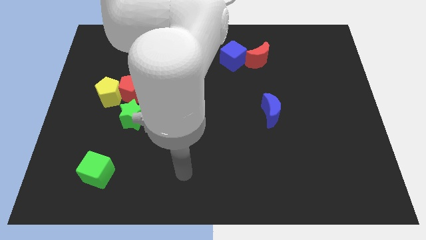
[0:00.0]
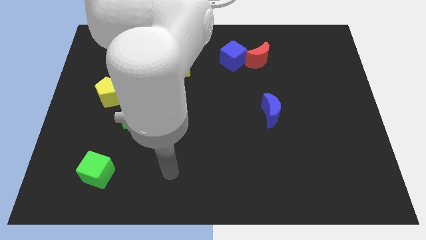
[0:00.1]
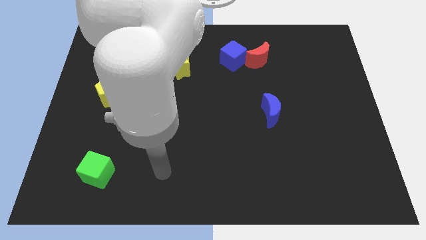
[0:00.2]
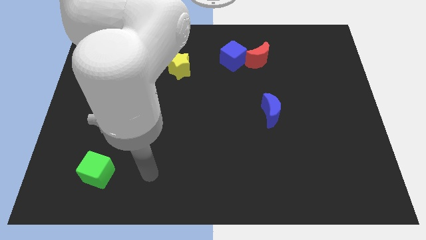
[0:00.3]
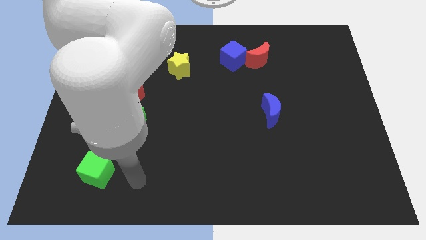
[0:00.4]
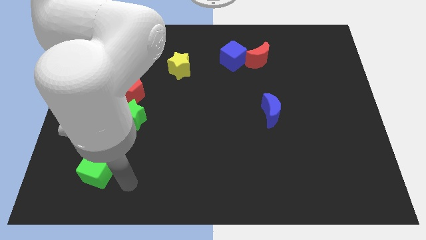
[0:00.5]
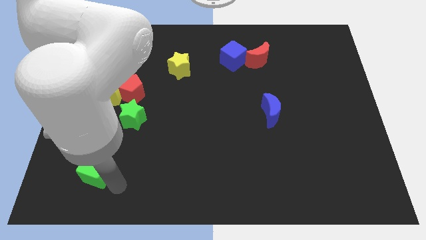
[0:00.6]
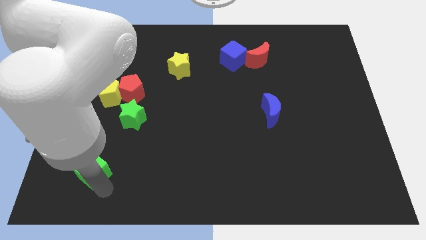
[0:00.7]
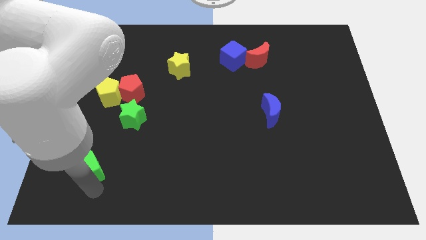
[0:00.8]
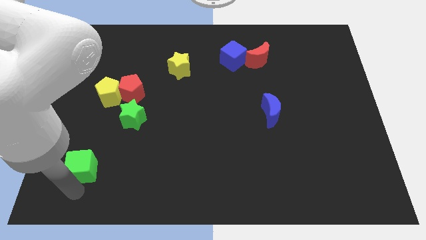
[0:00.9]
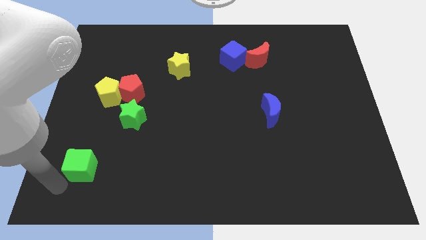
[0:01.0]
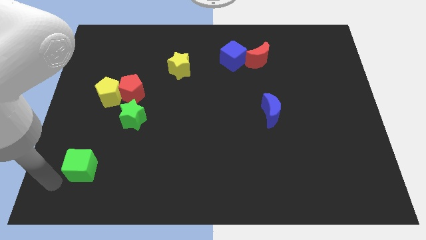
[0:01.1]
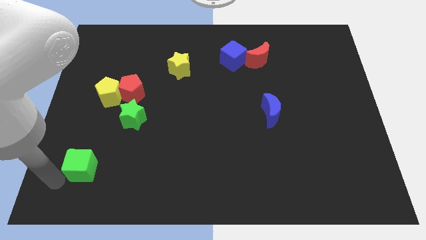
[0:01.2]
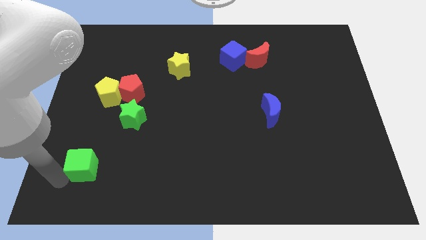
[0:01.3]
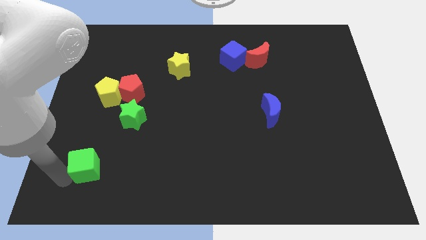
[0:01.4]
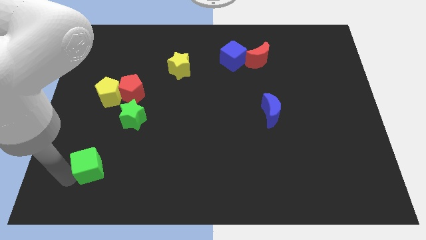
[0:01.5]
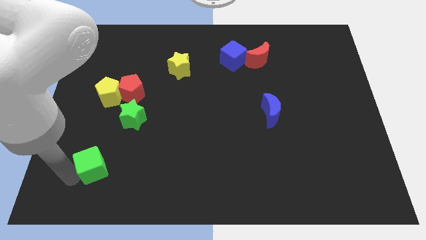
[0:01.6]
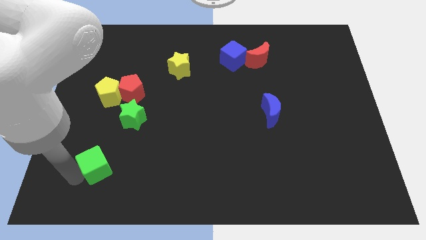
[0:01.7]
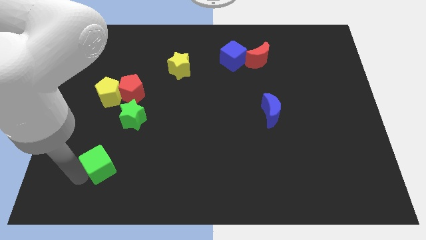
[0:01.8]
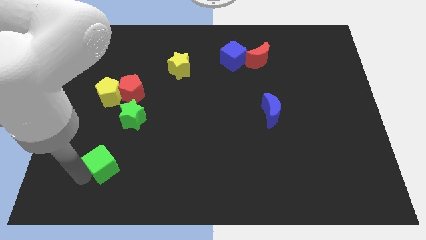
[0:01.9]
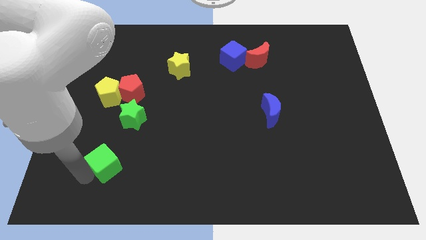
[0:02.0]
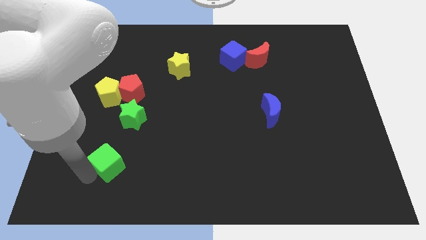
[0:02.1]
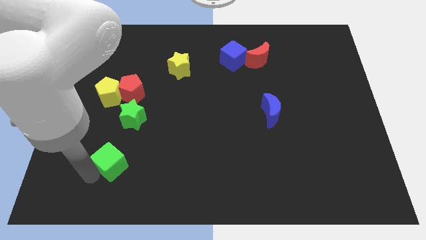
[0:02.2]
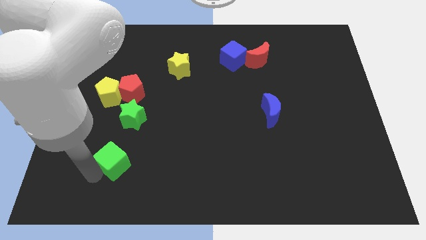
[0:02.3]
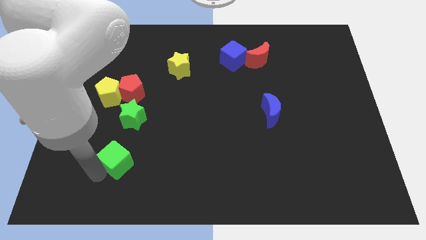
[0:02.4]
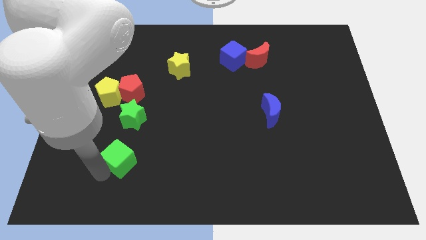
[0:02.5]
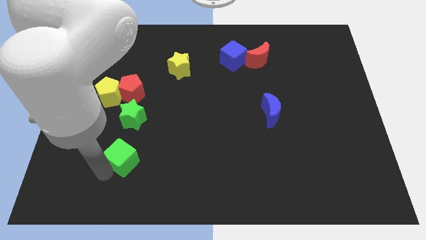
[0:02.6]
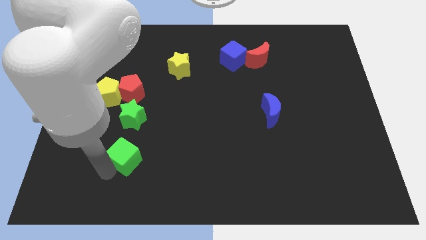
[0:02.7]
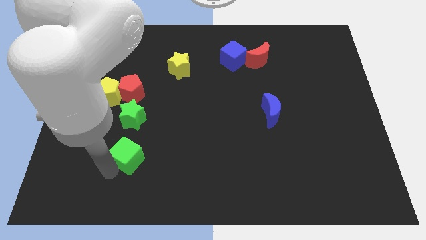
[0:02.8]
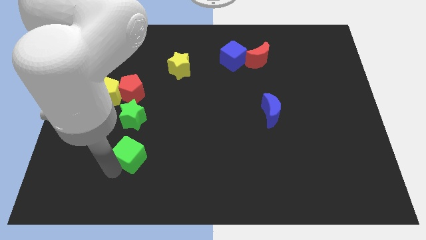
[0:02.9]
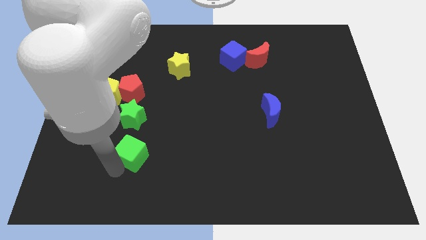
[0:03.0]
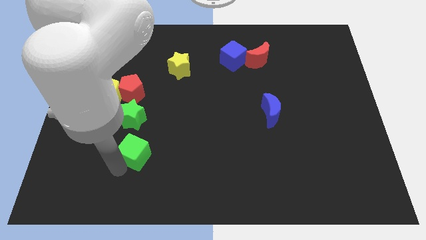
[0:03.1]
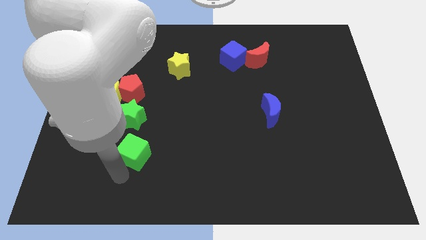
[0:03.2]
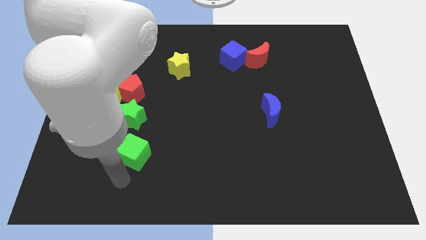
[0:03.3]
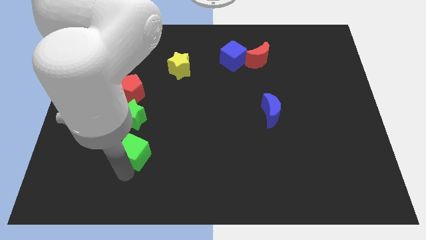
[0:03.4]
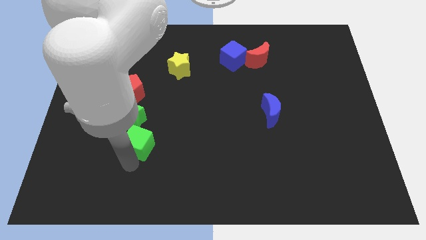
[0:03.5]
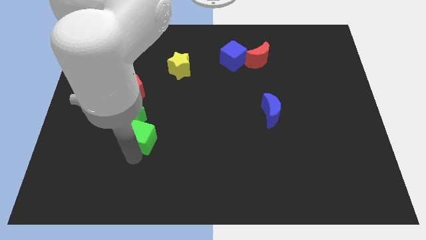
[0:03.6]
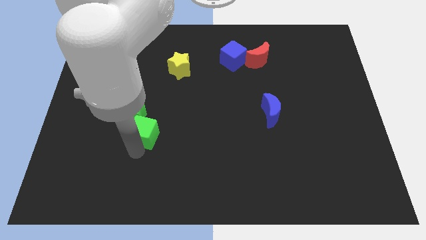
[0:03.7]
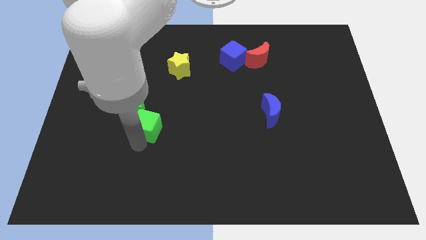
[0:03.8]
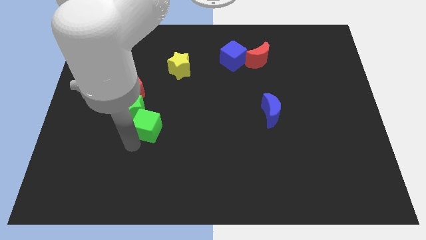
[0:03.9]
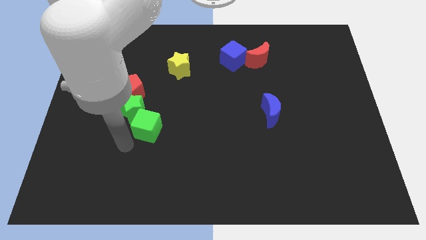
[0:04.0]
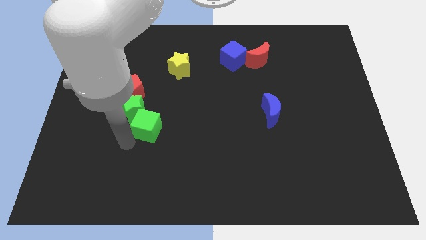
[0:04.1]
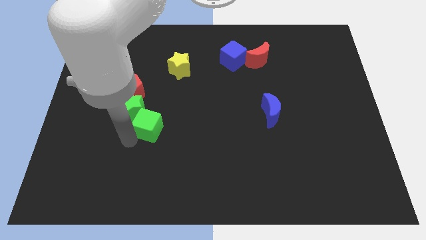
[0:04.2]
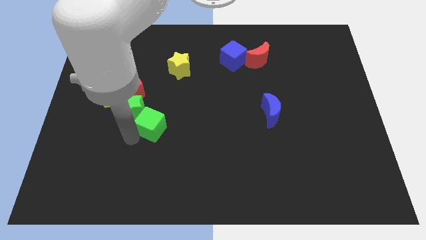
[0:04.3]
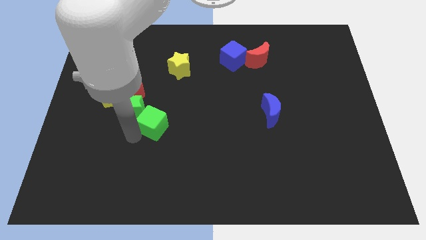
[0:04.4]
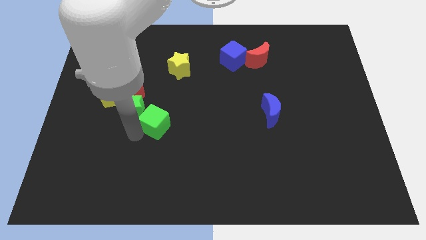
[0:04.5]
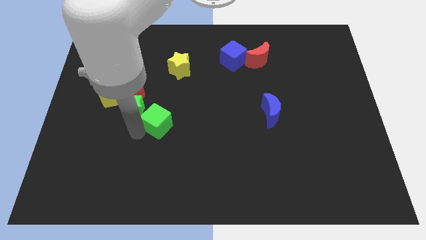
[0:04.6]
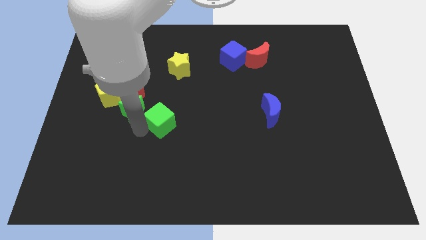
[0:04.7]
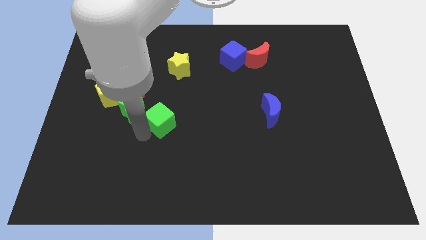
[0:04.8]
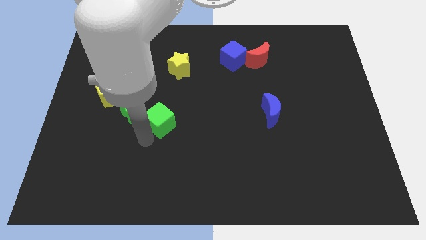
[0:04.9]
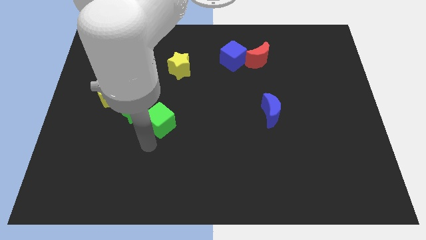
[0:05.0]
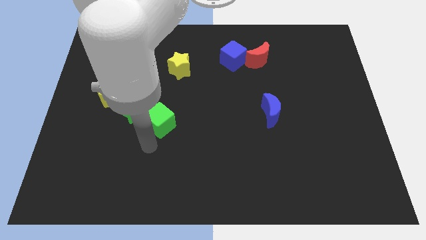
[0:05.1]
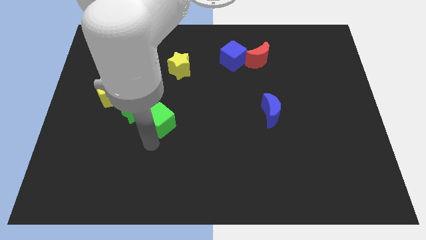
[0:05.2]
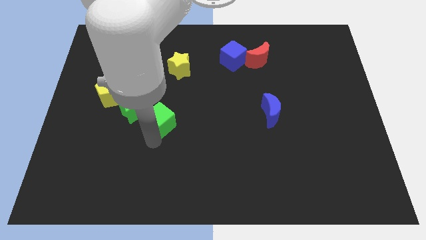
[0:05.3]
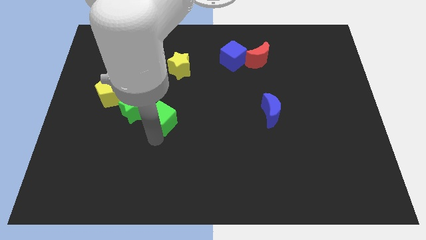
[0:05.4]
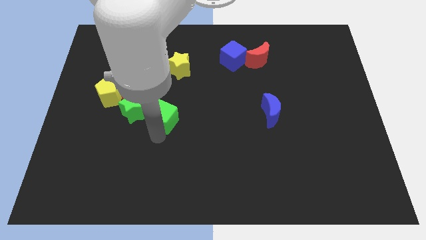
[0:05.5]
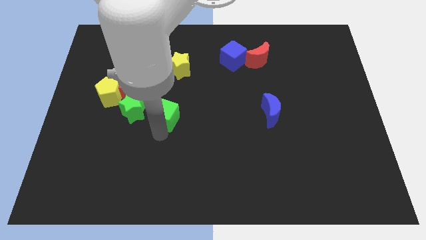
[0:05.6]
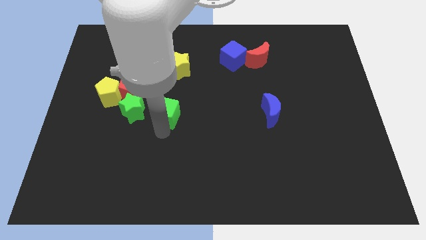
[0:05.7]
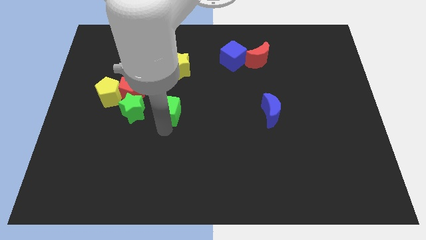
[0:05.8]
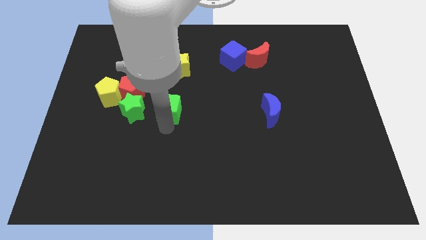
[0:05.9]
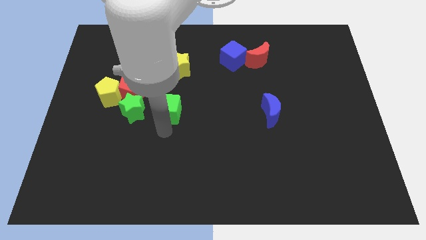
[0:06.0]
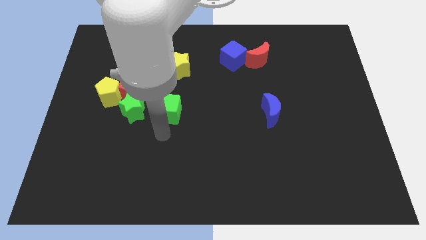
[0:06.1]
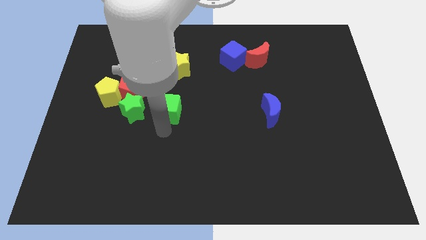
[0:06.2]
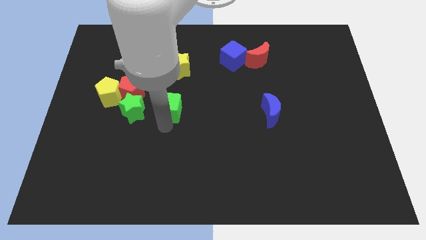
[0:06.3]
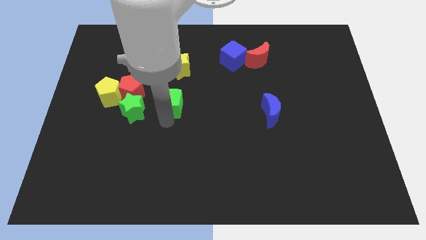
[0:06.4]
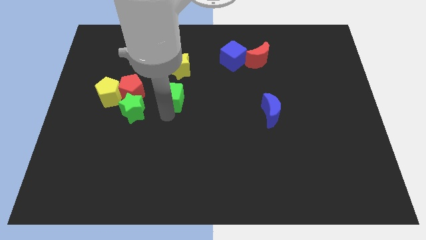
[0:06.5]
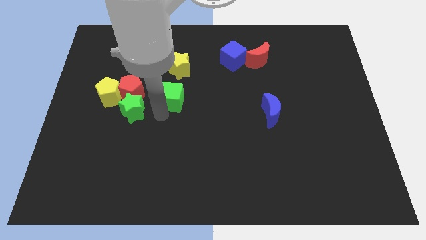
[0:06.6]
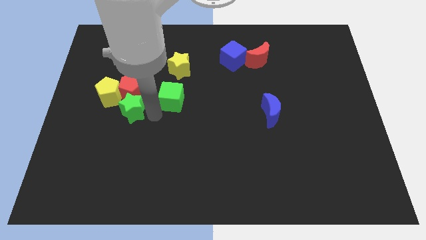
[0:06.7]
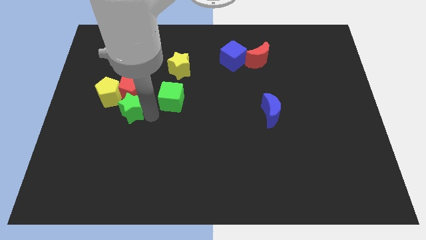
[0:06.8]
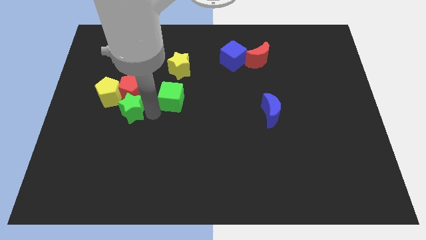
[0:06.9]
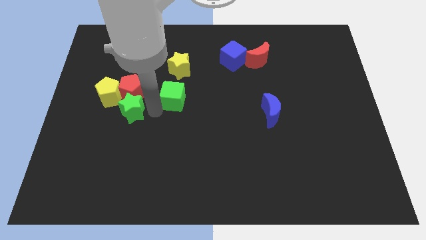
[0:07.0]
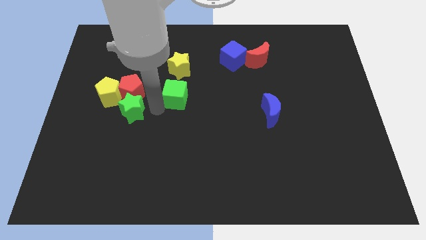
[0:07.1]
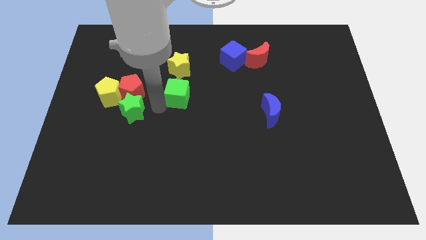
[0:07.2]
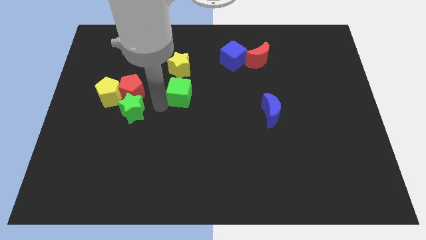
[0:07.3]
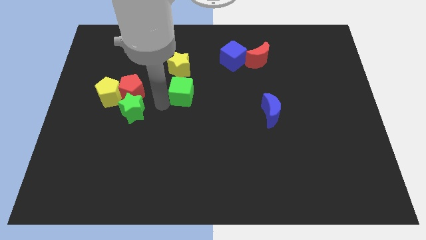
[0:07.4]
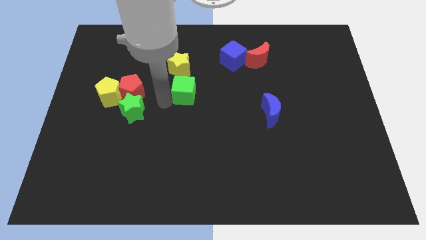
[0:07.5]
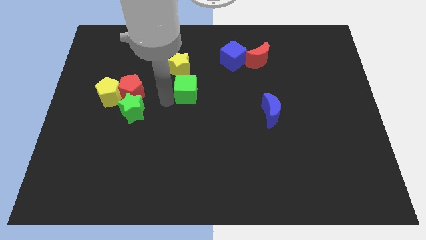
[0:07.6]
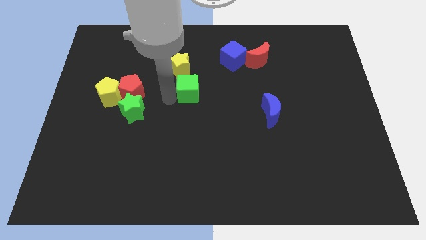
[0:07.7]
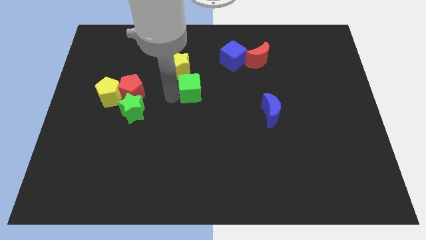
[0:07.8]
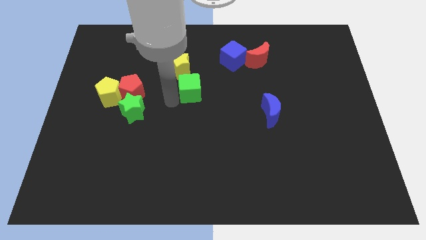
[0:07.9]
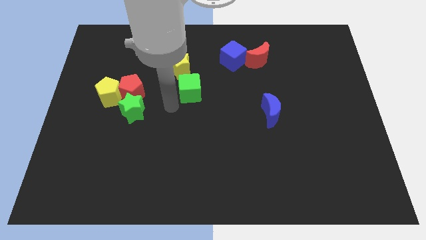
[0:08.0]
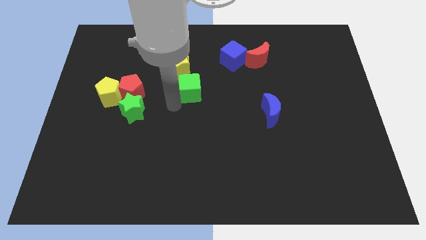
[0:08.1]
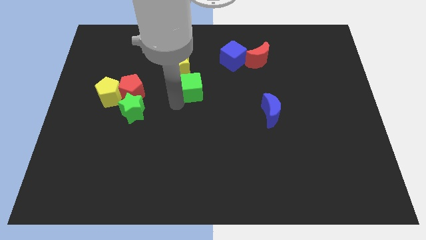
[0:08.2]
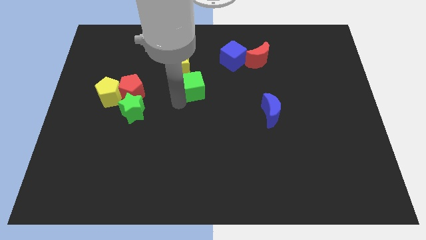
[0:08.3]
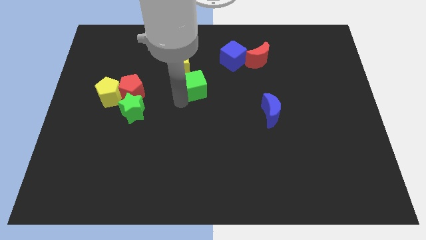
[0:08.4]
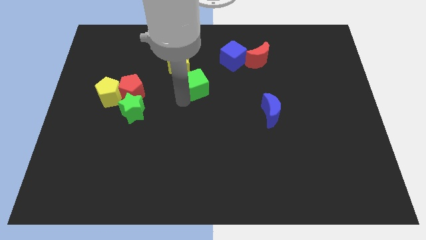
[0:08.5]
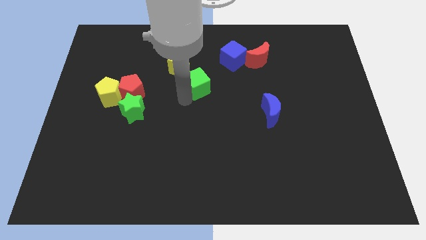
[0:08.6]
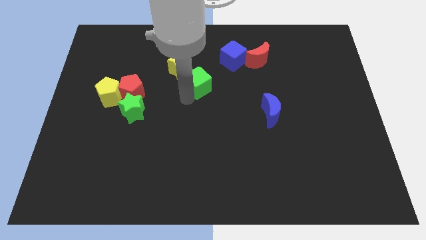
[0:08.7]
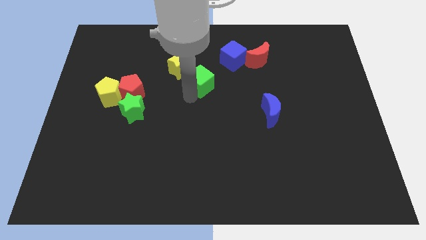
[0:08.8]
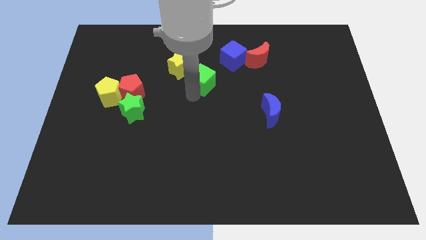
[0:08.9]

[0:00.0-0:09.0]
move the green cube to the right side of the yellow star
